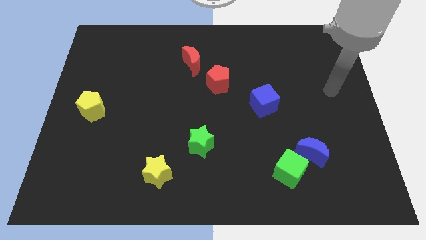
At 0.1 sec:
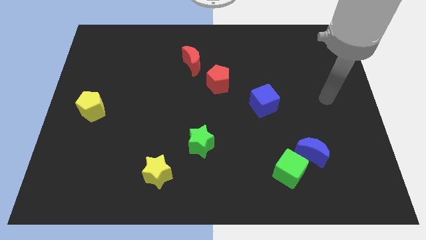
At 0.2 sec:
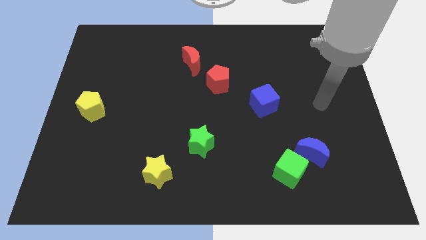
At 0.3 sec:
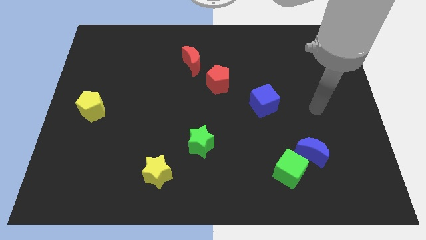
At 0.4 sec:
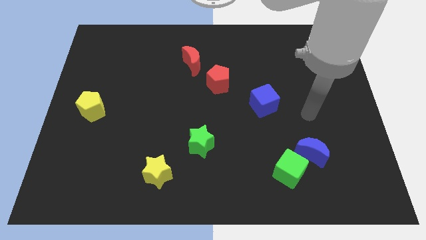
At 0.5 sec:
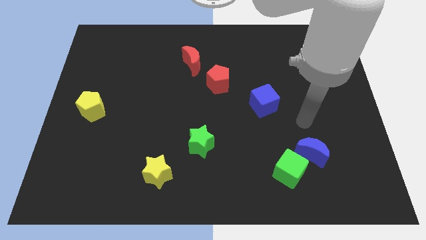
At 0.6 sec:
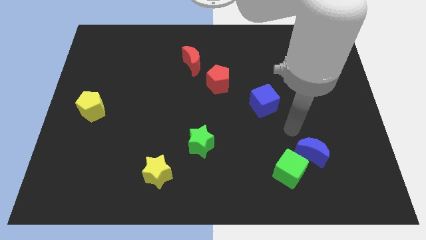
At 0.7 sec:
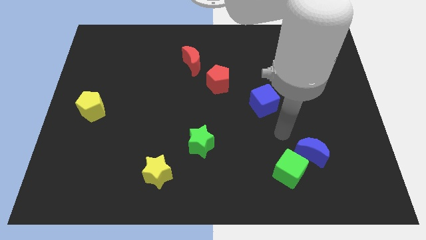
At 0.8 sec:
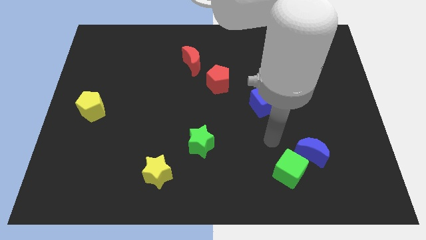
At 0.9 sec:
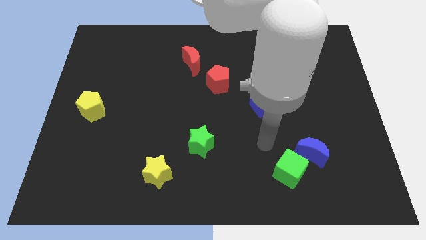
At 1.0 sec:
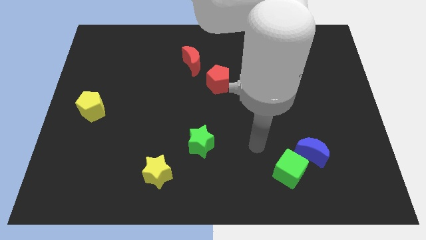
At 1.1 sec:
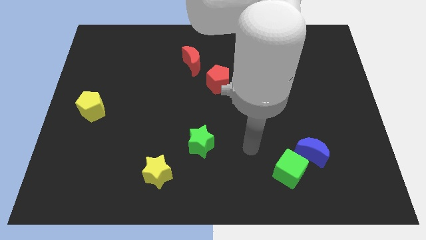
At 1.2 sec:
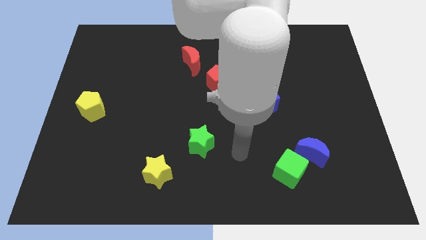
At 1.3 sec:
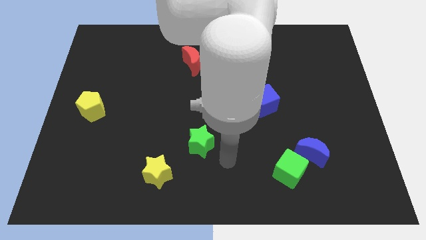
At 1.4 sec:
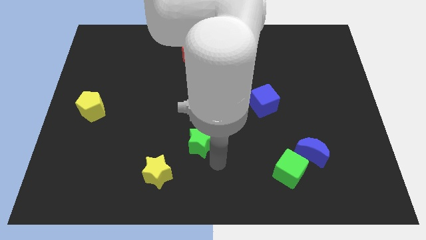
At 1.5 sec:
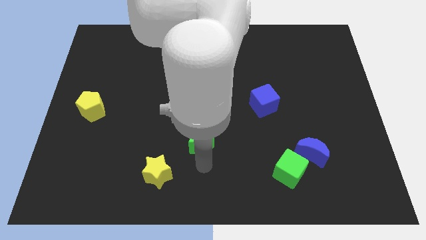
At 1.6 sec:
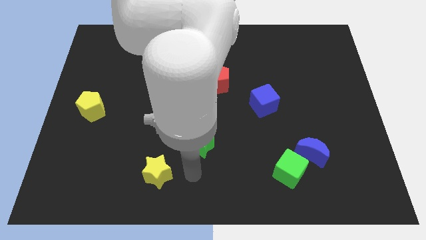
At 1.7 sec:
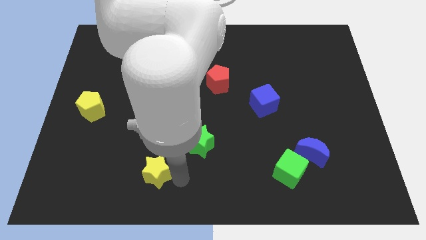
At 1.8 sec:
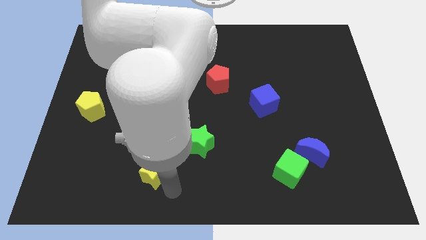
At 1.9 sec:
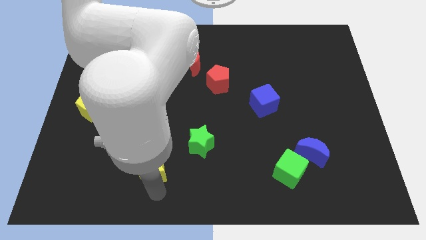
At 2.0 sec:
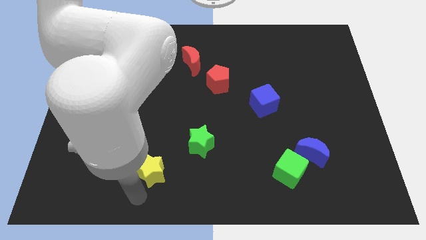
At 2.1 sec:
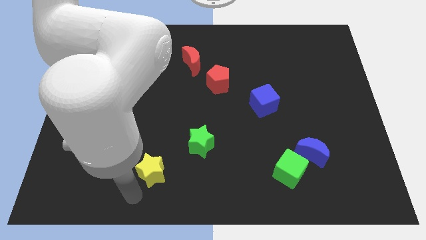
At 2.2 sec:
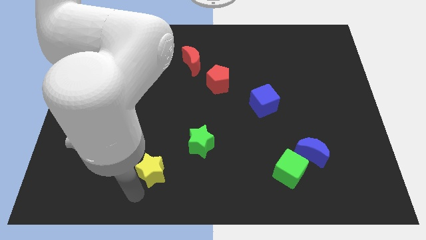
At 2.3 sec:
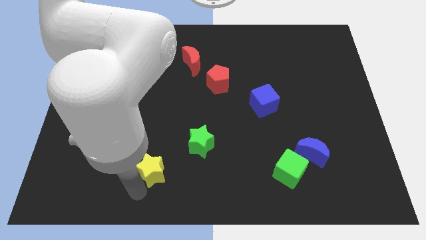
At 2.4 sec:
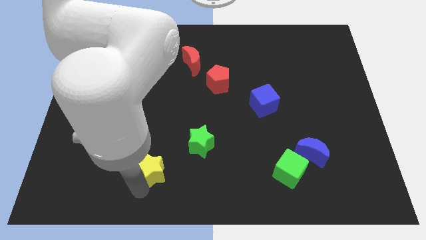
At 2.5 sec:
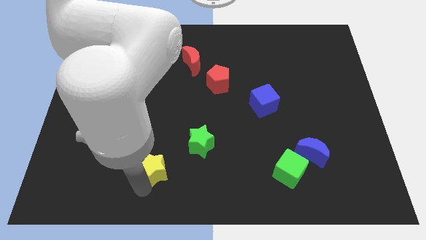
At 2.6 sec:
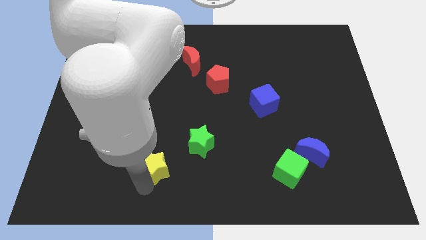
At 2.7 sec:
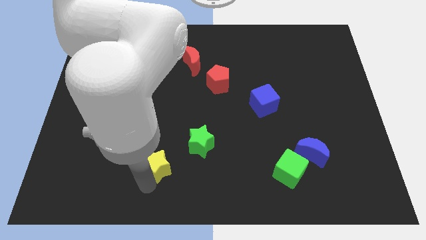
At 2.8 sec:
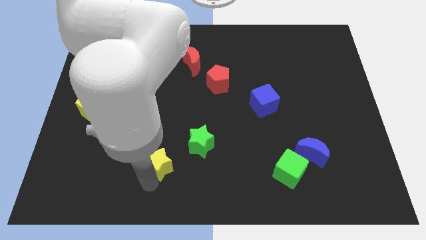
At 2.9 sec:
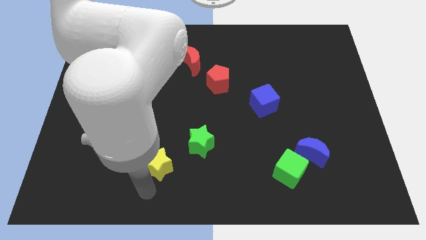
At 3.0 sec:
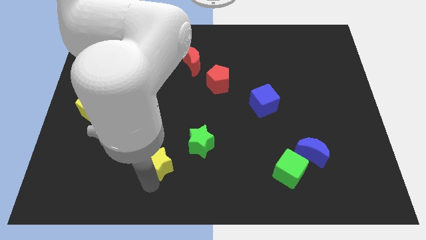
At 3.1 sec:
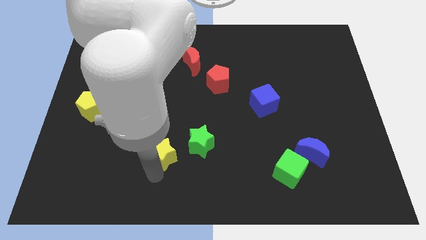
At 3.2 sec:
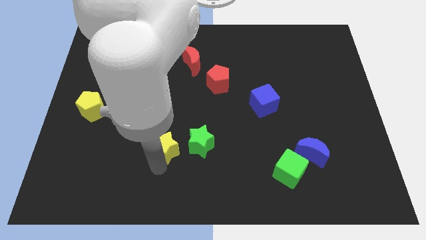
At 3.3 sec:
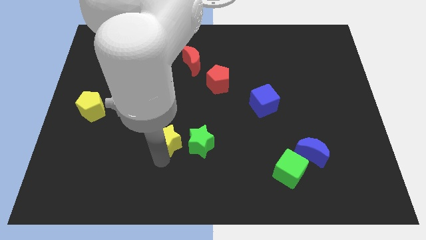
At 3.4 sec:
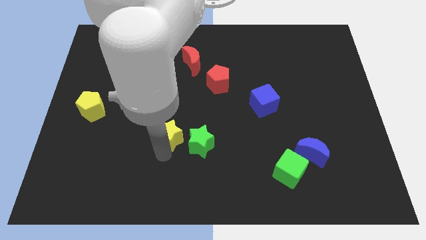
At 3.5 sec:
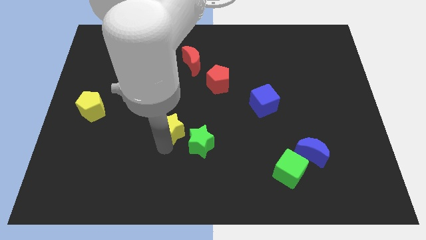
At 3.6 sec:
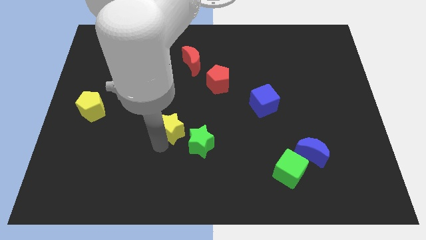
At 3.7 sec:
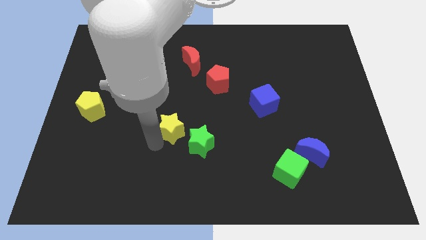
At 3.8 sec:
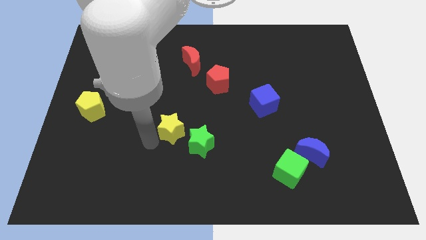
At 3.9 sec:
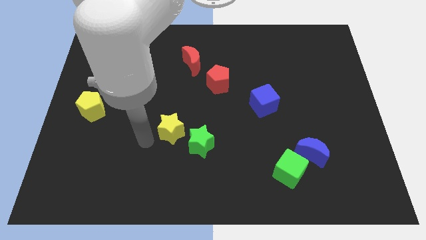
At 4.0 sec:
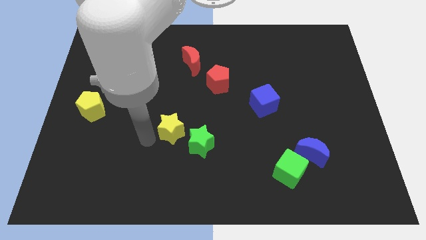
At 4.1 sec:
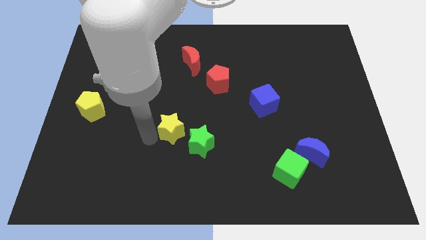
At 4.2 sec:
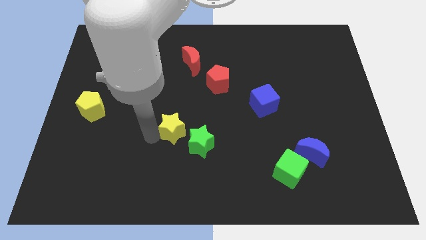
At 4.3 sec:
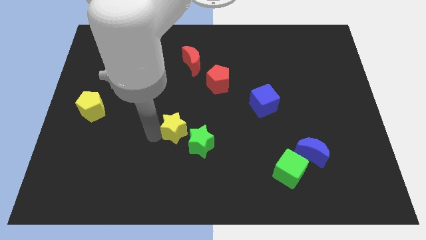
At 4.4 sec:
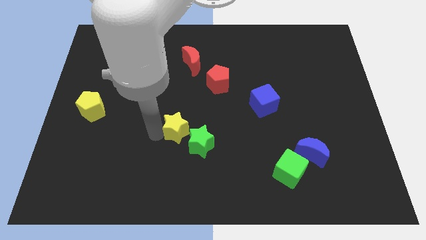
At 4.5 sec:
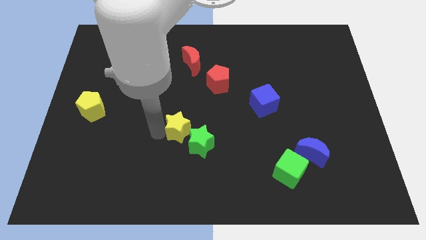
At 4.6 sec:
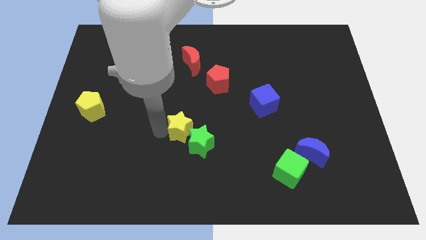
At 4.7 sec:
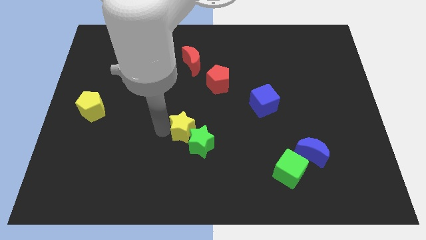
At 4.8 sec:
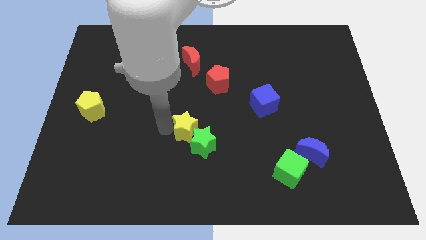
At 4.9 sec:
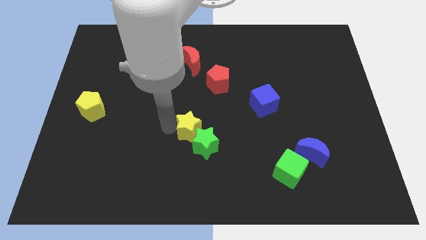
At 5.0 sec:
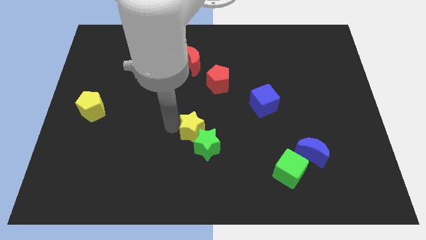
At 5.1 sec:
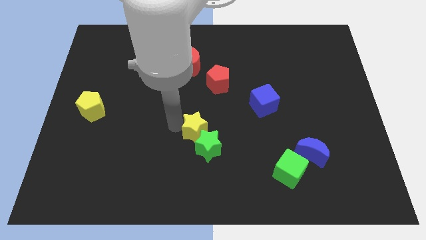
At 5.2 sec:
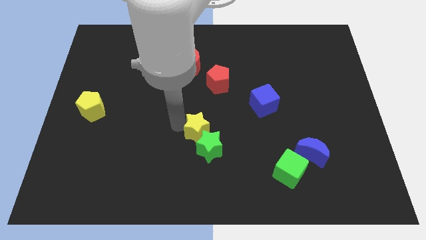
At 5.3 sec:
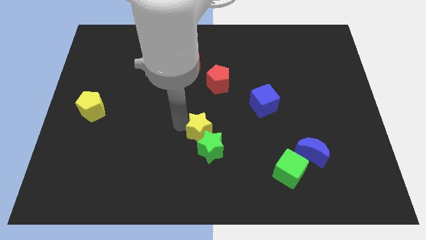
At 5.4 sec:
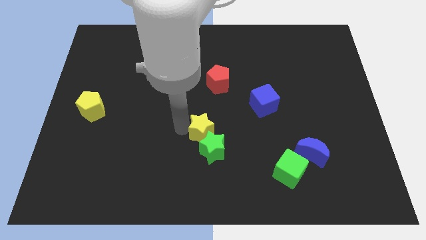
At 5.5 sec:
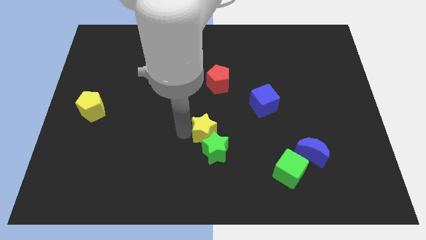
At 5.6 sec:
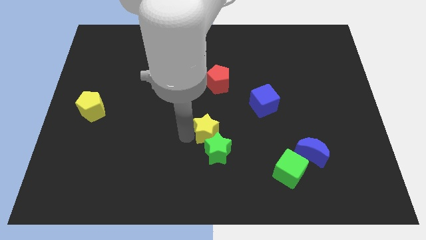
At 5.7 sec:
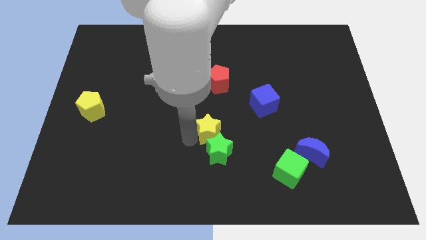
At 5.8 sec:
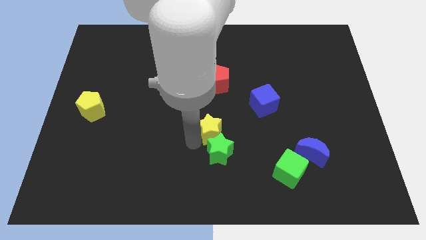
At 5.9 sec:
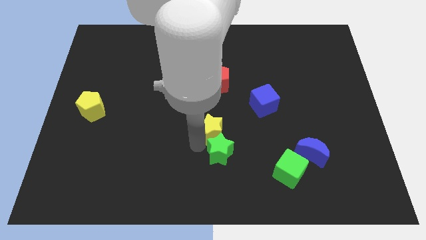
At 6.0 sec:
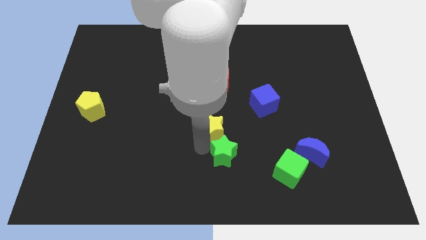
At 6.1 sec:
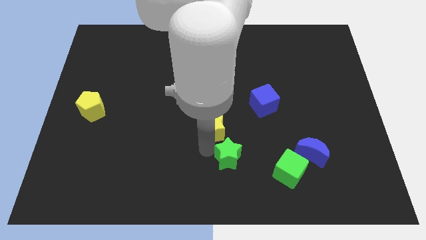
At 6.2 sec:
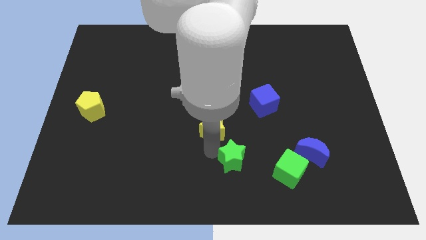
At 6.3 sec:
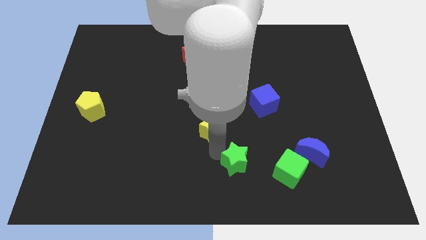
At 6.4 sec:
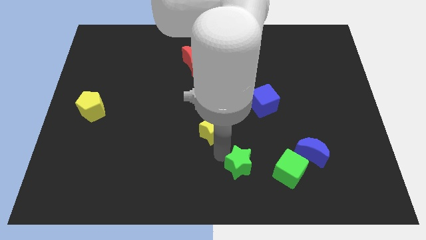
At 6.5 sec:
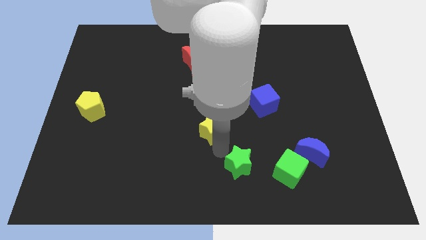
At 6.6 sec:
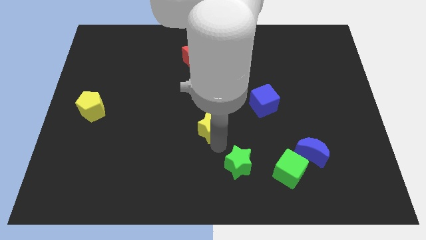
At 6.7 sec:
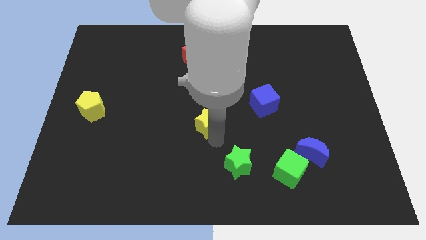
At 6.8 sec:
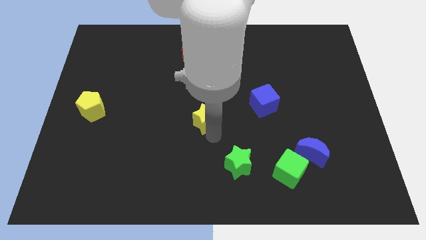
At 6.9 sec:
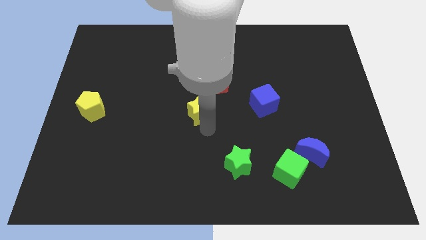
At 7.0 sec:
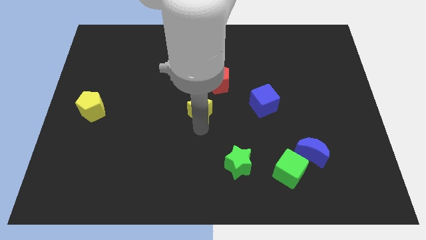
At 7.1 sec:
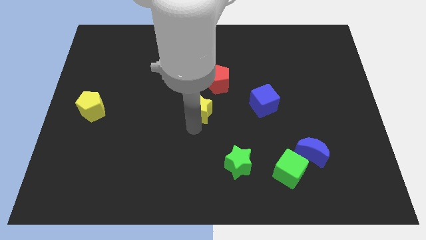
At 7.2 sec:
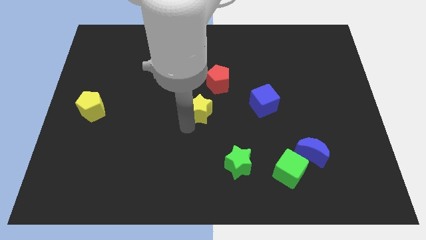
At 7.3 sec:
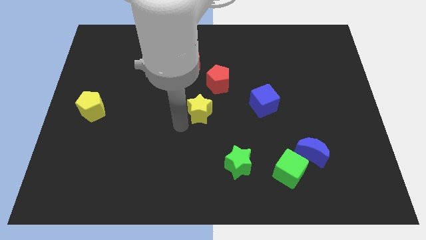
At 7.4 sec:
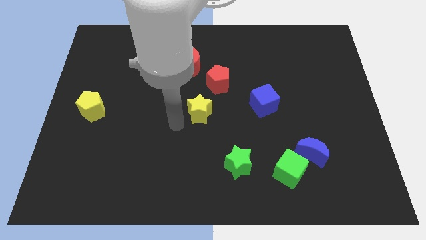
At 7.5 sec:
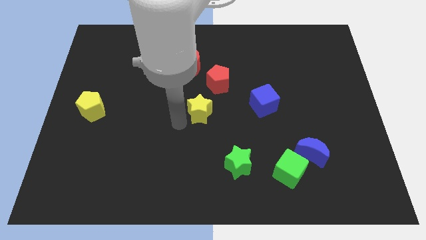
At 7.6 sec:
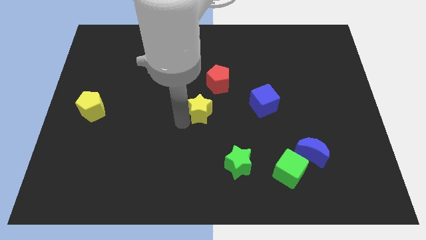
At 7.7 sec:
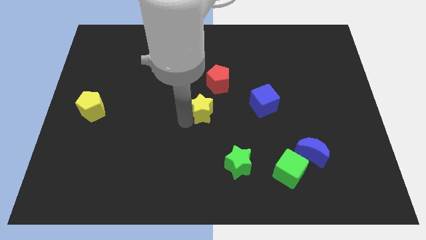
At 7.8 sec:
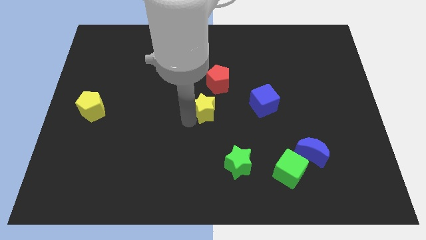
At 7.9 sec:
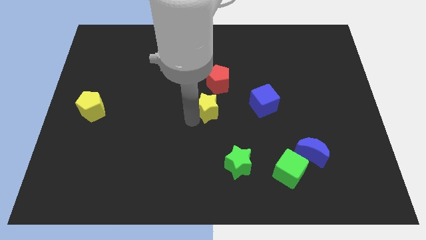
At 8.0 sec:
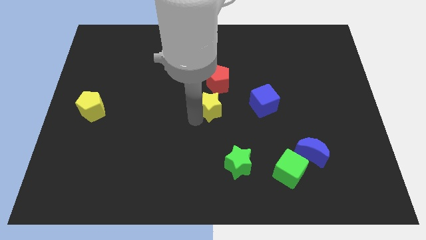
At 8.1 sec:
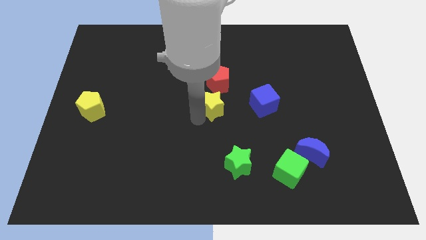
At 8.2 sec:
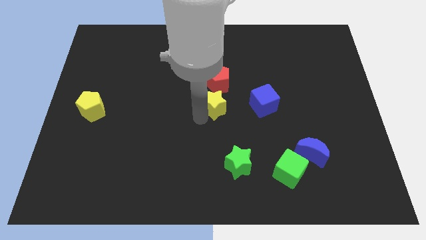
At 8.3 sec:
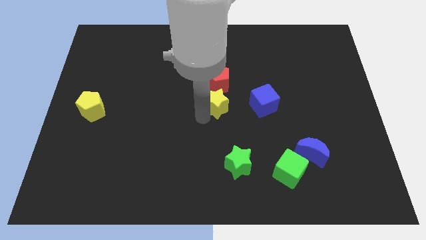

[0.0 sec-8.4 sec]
push the yellow star upwards and right
